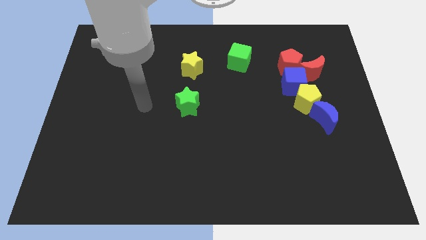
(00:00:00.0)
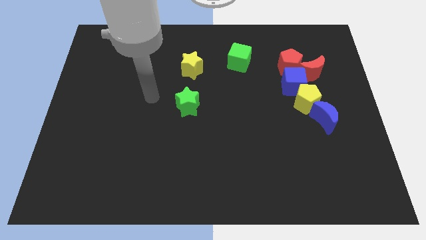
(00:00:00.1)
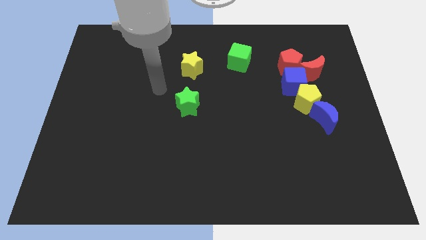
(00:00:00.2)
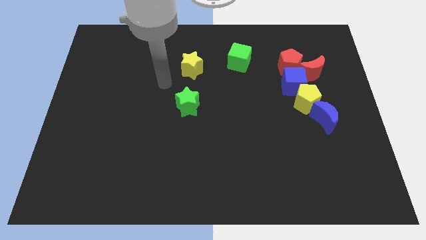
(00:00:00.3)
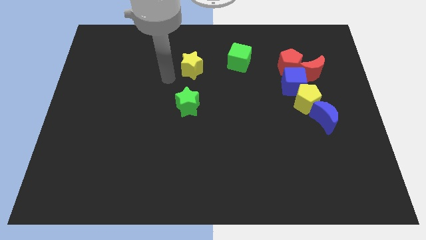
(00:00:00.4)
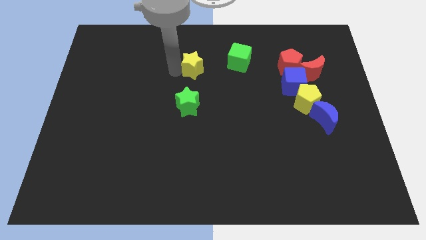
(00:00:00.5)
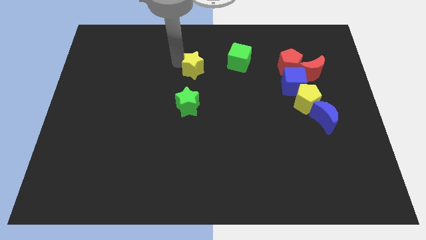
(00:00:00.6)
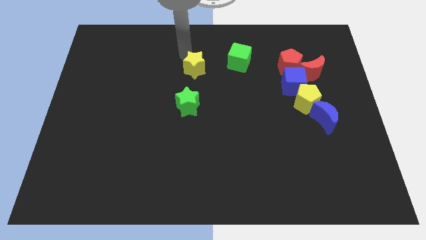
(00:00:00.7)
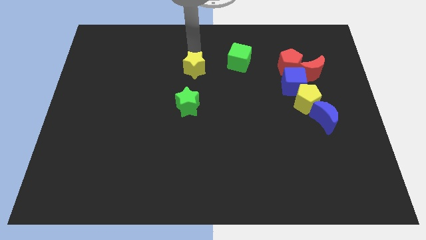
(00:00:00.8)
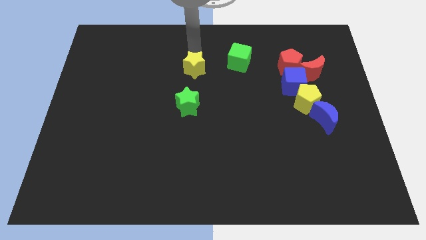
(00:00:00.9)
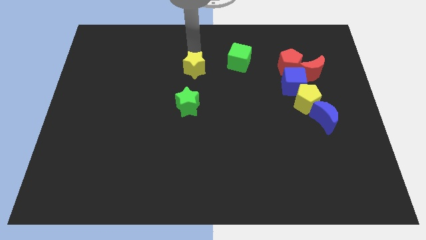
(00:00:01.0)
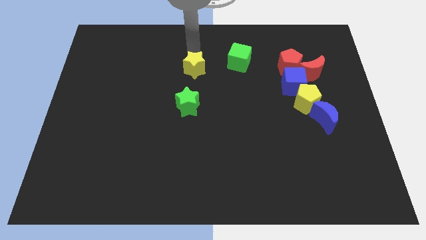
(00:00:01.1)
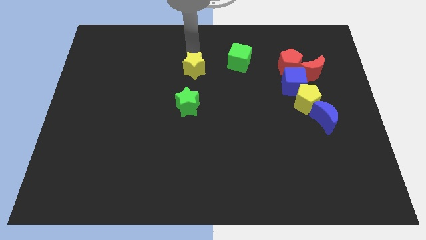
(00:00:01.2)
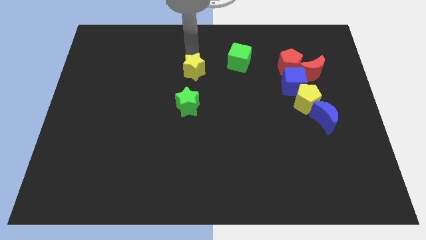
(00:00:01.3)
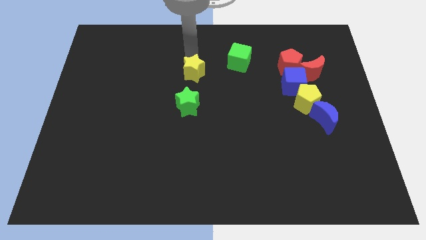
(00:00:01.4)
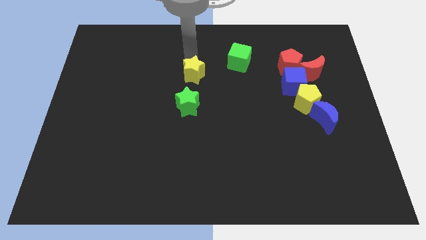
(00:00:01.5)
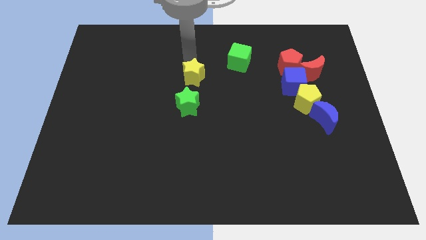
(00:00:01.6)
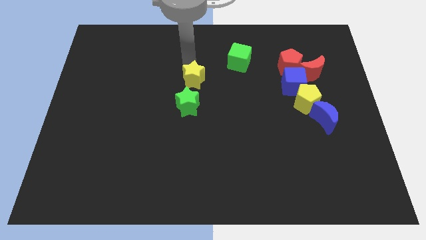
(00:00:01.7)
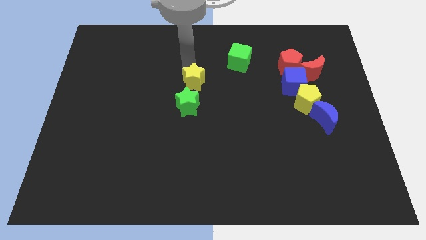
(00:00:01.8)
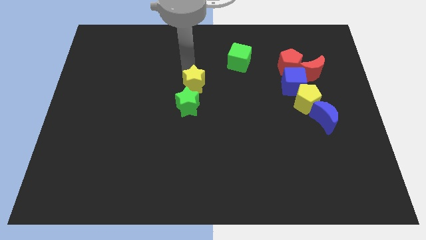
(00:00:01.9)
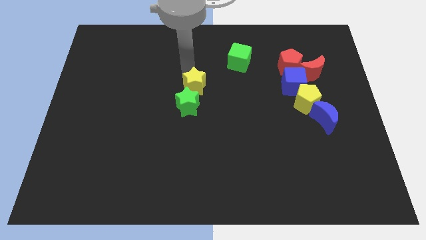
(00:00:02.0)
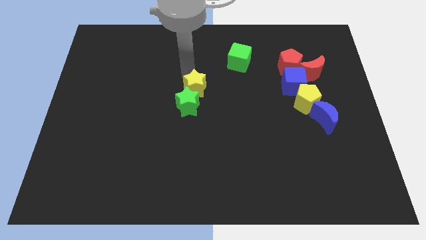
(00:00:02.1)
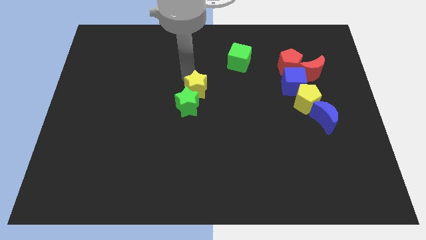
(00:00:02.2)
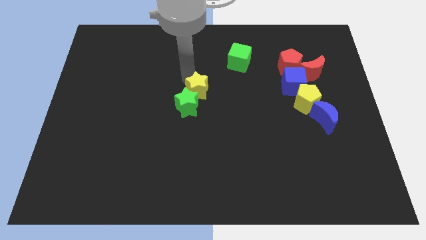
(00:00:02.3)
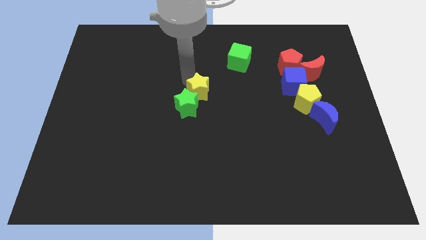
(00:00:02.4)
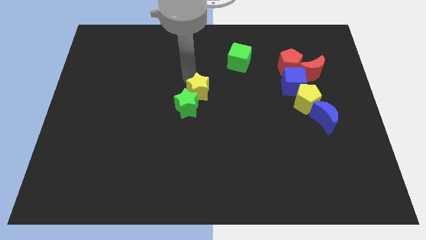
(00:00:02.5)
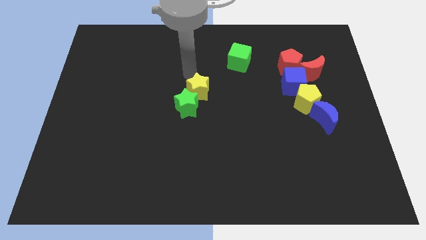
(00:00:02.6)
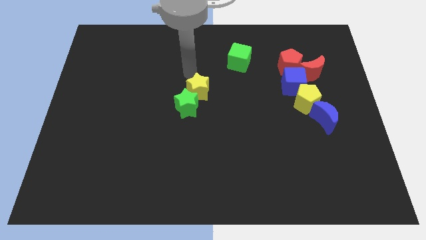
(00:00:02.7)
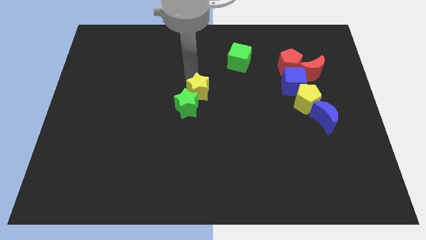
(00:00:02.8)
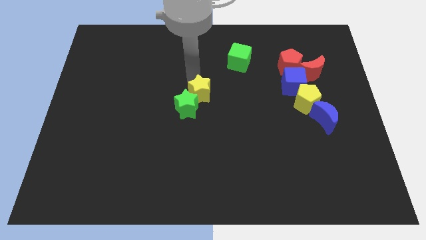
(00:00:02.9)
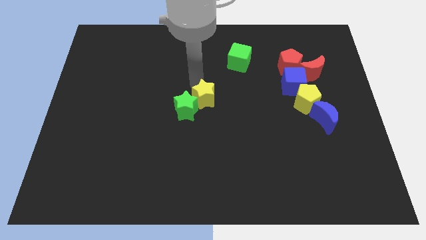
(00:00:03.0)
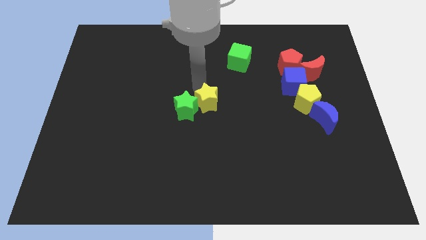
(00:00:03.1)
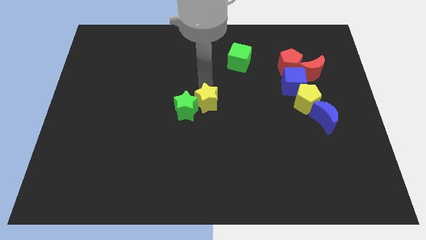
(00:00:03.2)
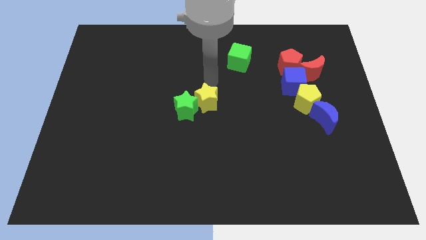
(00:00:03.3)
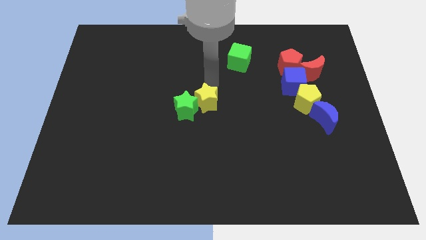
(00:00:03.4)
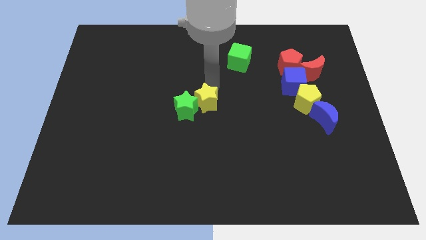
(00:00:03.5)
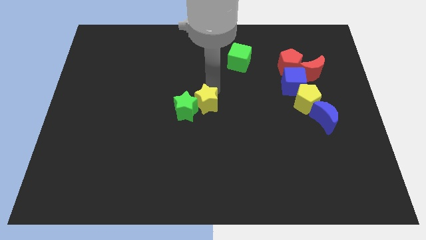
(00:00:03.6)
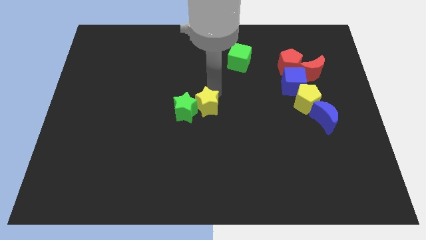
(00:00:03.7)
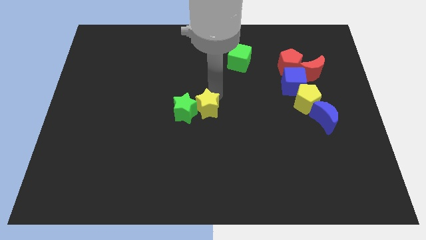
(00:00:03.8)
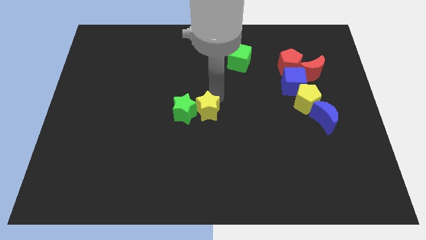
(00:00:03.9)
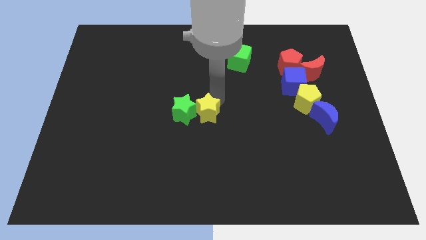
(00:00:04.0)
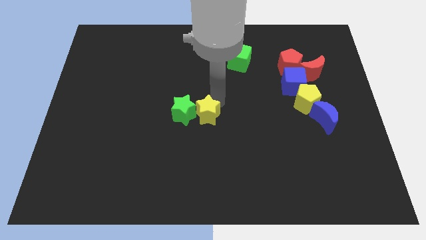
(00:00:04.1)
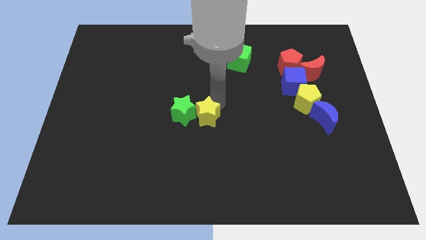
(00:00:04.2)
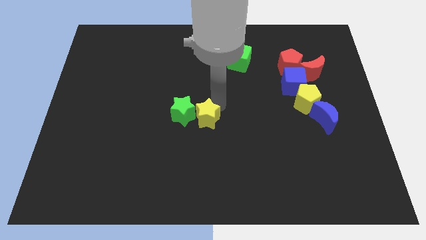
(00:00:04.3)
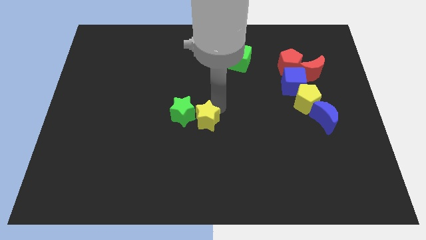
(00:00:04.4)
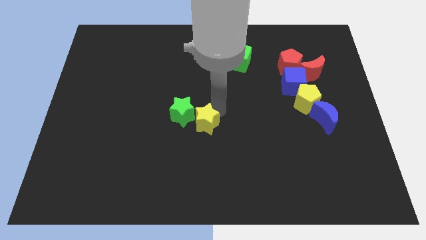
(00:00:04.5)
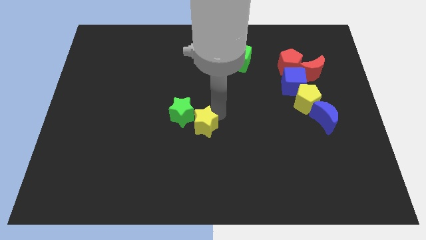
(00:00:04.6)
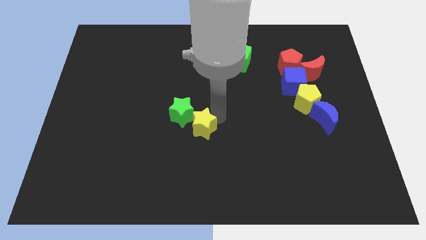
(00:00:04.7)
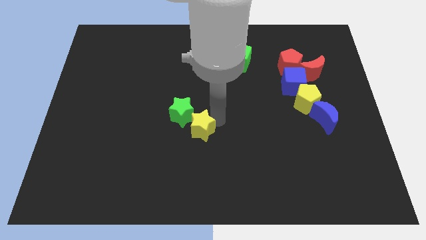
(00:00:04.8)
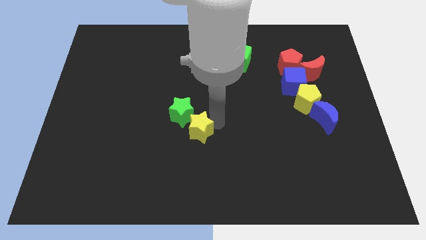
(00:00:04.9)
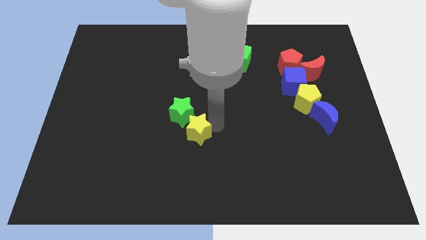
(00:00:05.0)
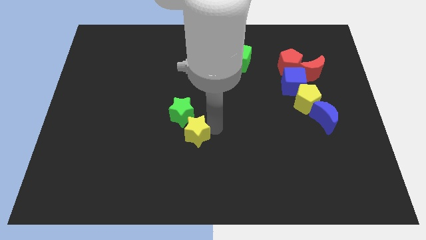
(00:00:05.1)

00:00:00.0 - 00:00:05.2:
slide the yellow star down

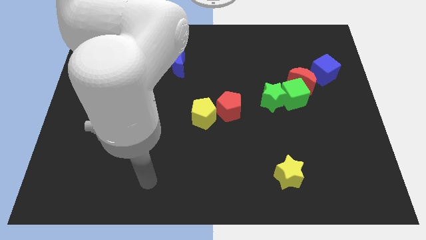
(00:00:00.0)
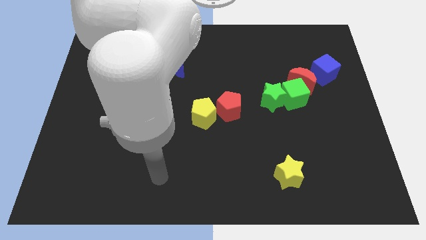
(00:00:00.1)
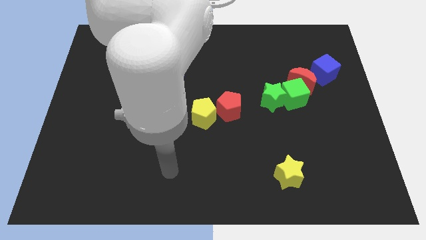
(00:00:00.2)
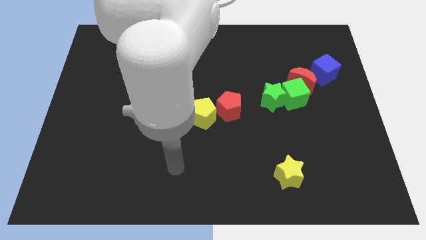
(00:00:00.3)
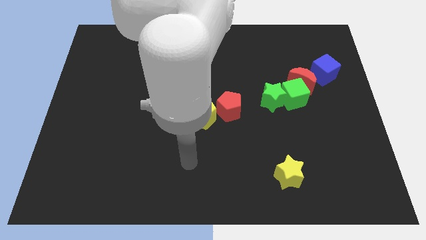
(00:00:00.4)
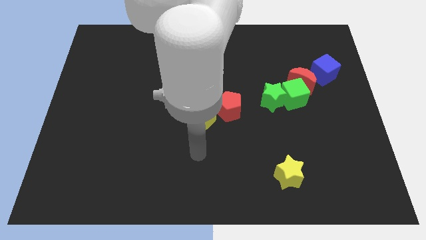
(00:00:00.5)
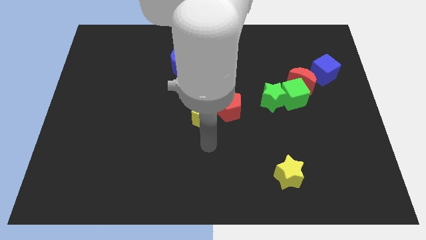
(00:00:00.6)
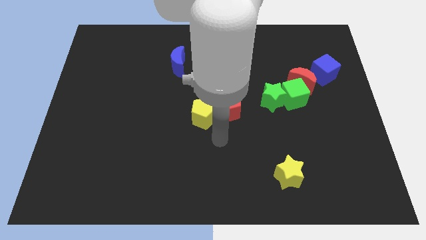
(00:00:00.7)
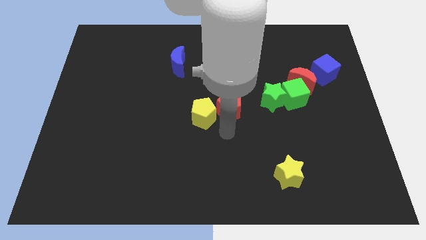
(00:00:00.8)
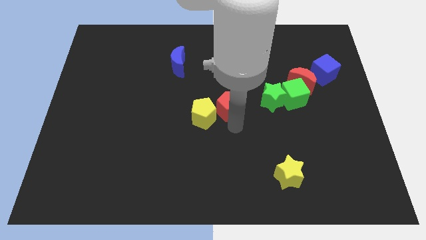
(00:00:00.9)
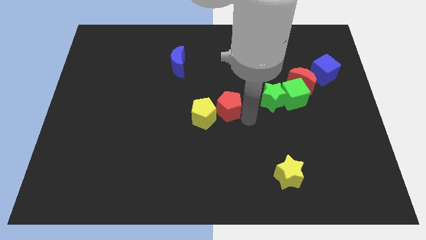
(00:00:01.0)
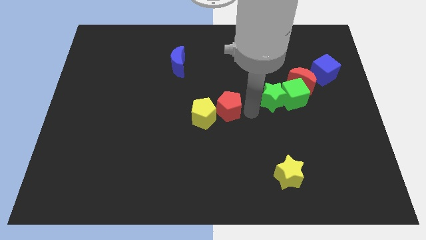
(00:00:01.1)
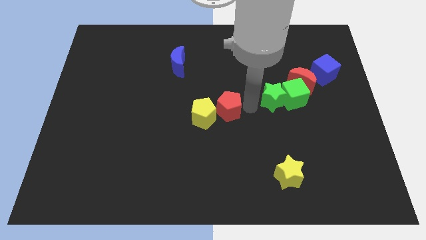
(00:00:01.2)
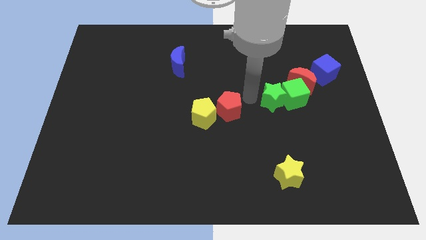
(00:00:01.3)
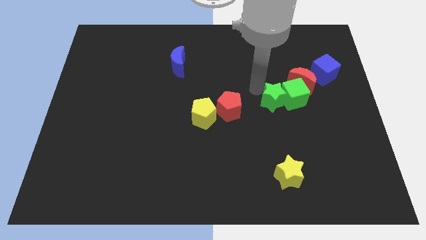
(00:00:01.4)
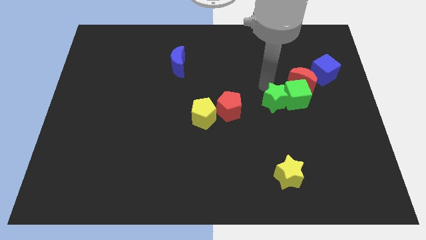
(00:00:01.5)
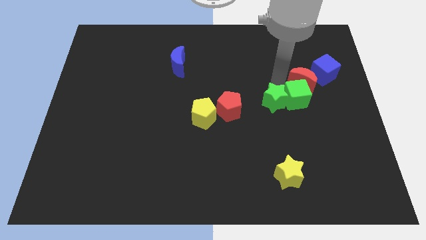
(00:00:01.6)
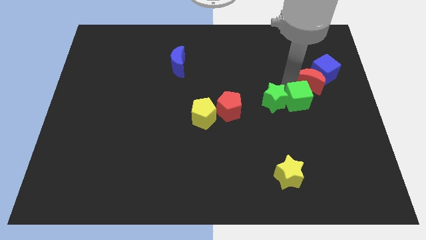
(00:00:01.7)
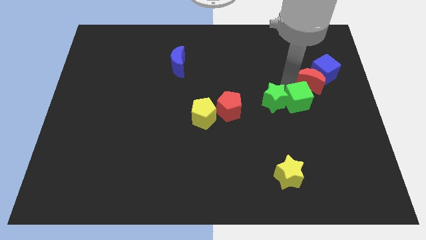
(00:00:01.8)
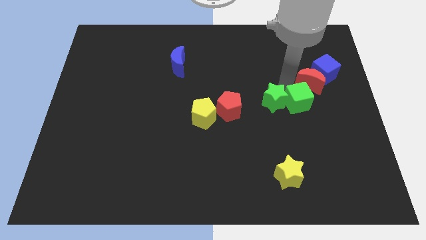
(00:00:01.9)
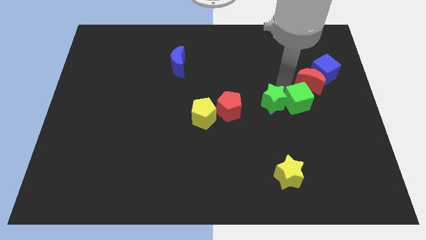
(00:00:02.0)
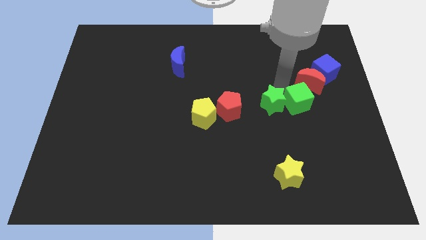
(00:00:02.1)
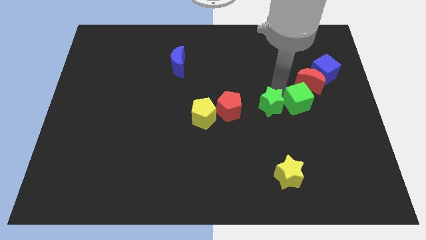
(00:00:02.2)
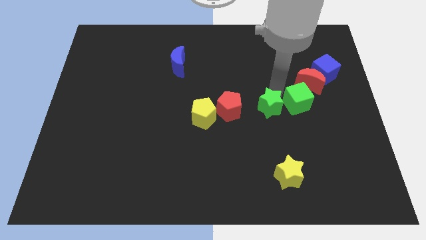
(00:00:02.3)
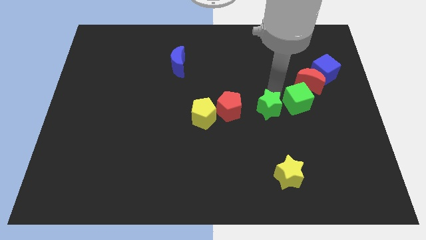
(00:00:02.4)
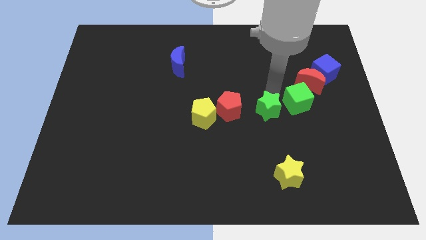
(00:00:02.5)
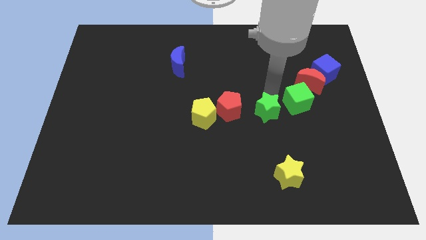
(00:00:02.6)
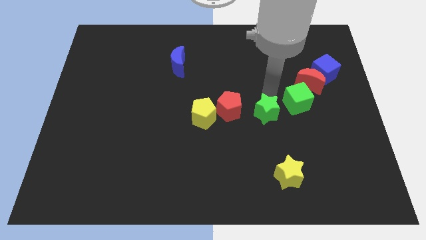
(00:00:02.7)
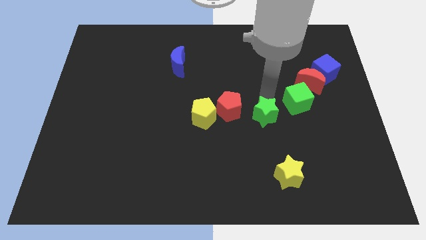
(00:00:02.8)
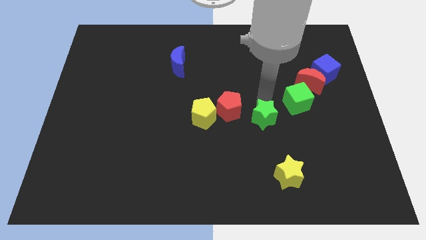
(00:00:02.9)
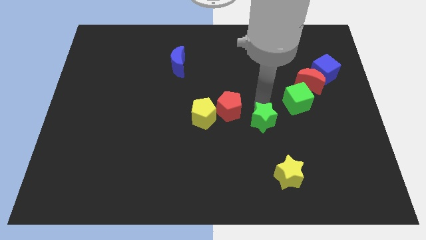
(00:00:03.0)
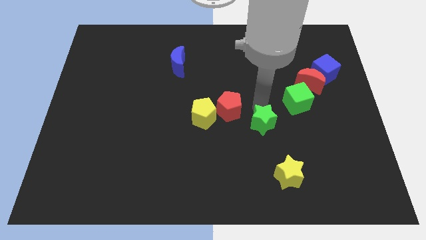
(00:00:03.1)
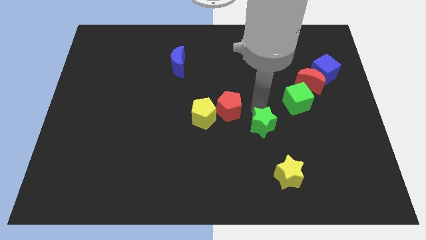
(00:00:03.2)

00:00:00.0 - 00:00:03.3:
slide the green star down and left slightly
